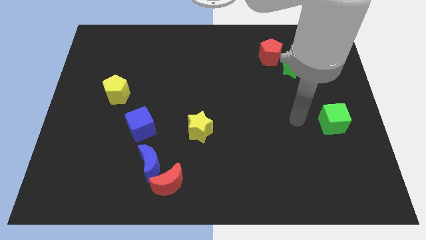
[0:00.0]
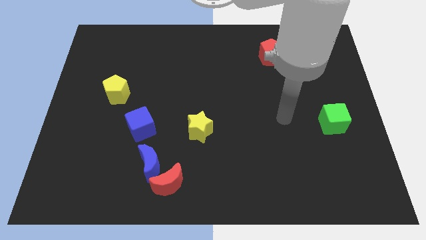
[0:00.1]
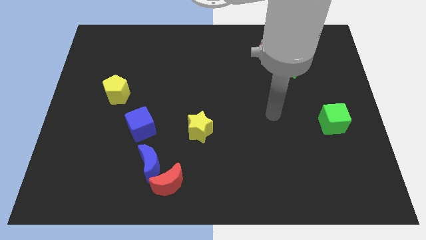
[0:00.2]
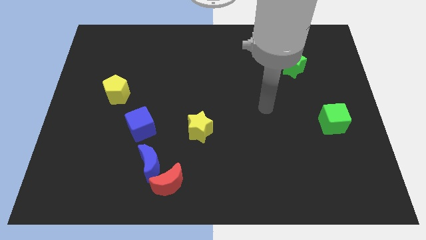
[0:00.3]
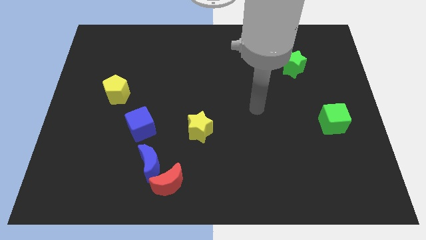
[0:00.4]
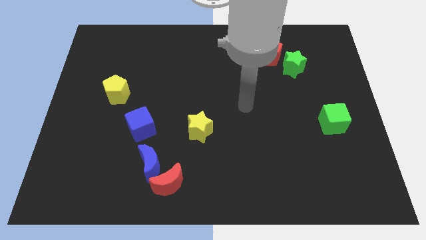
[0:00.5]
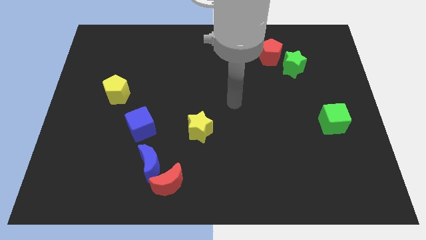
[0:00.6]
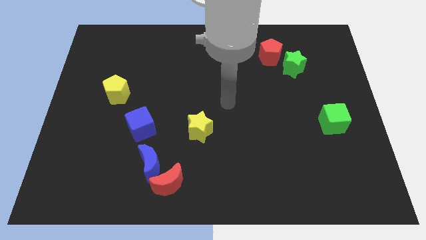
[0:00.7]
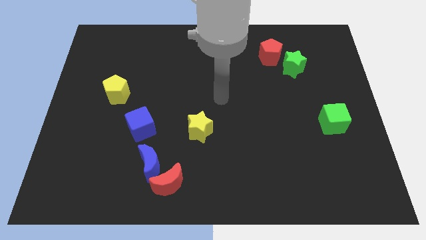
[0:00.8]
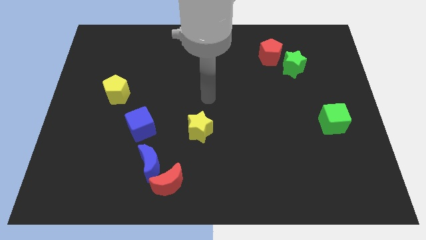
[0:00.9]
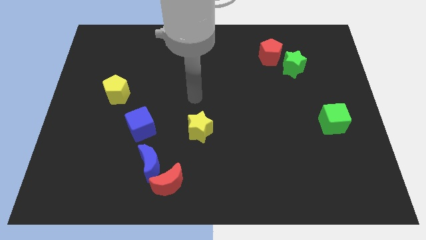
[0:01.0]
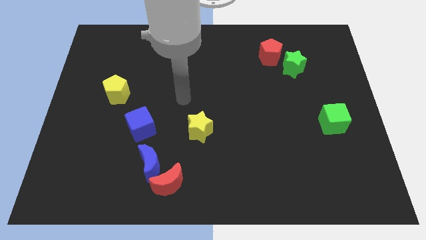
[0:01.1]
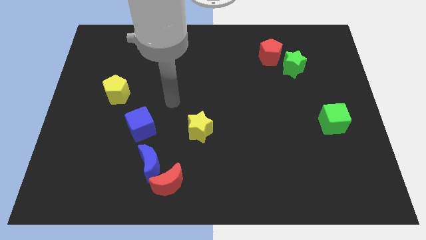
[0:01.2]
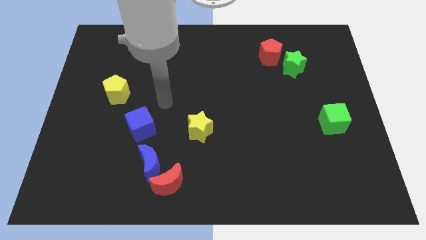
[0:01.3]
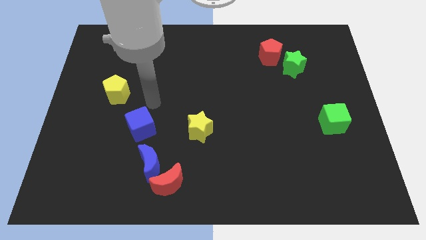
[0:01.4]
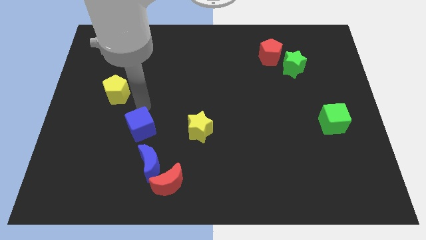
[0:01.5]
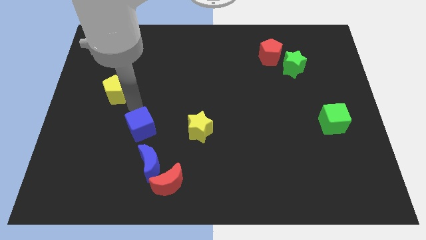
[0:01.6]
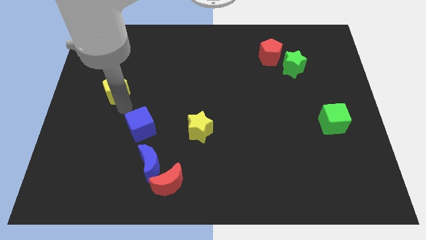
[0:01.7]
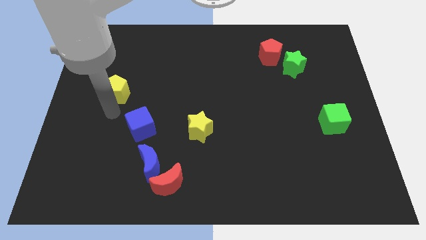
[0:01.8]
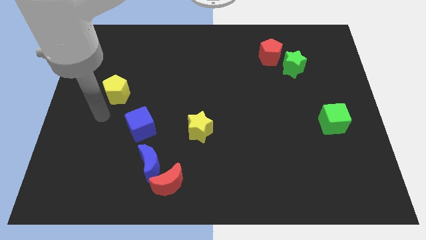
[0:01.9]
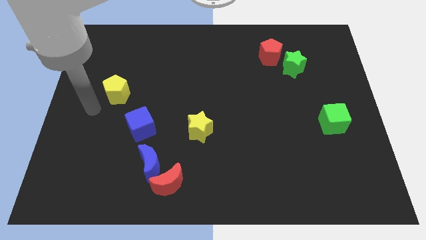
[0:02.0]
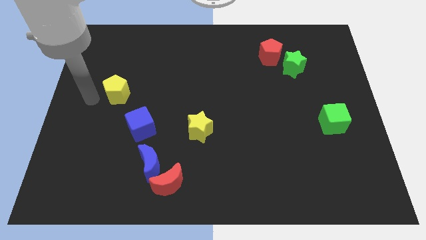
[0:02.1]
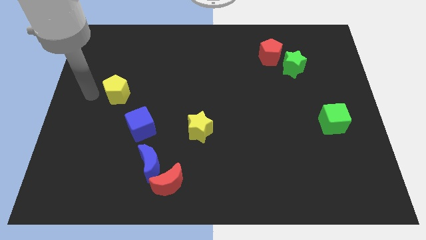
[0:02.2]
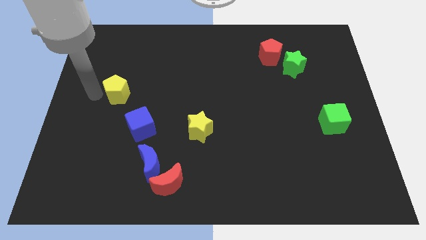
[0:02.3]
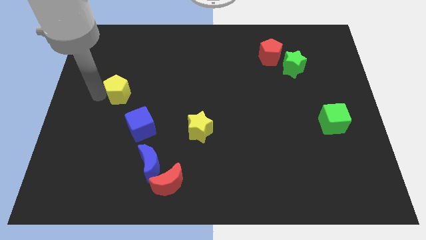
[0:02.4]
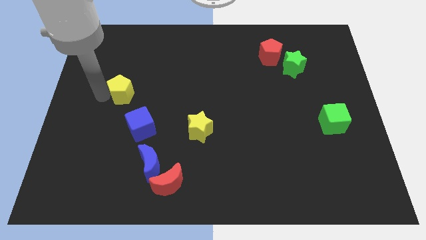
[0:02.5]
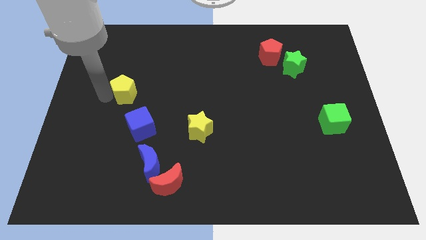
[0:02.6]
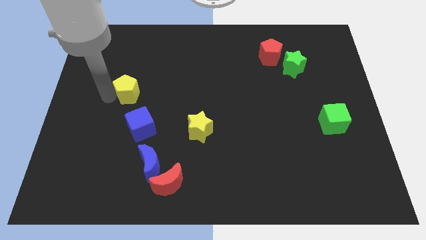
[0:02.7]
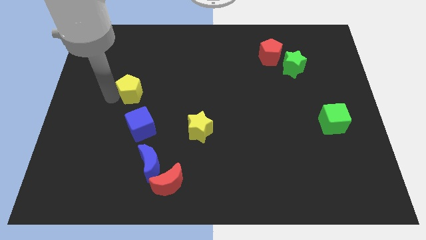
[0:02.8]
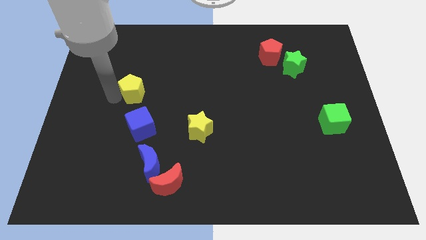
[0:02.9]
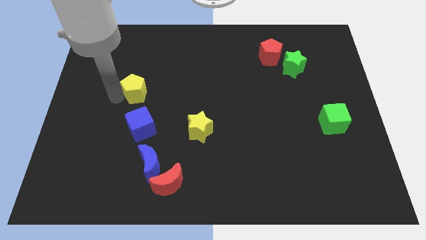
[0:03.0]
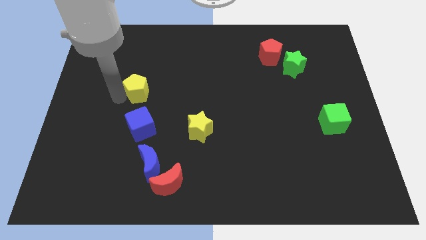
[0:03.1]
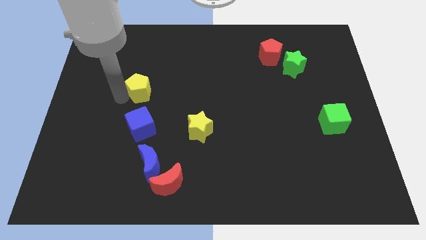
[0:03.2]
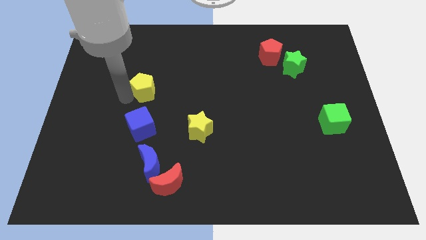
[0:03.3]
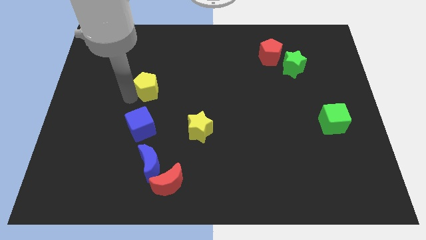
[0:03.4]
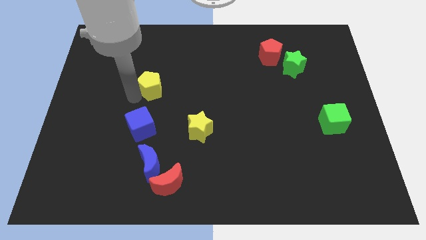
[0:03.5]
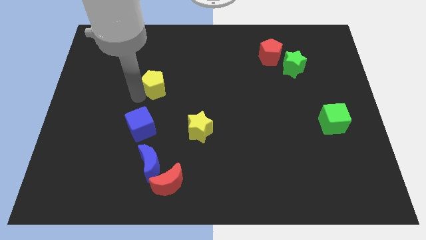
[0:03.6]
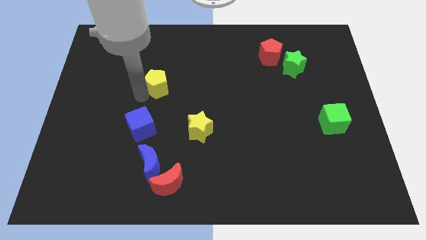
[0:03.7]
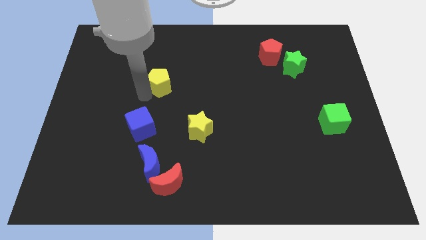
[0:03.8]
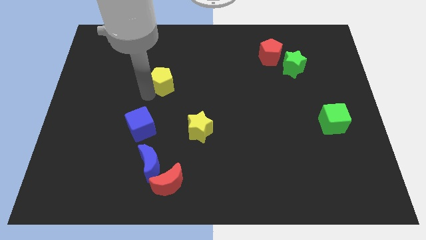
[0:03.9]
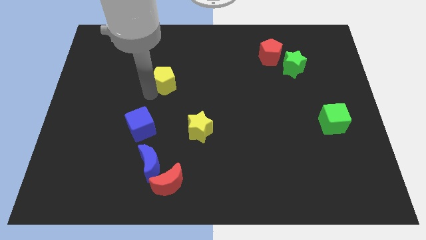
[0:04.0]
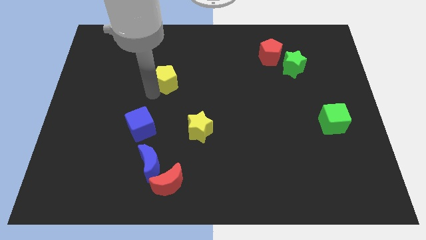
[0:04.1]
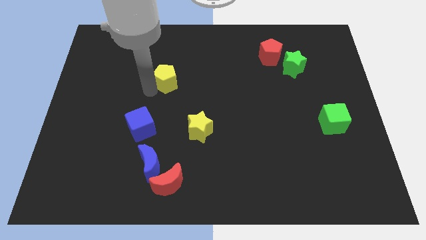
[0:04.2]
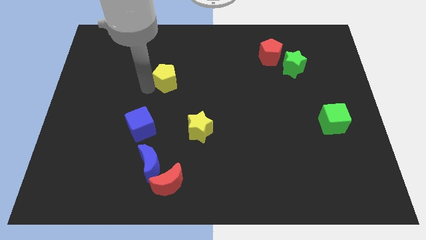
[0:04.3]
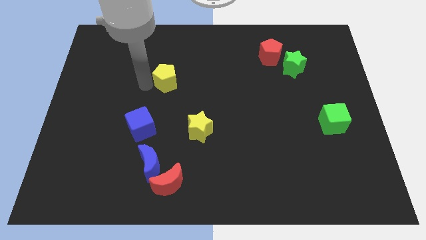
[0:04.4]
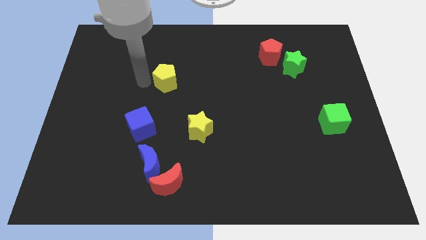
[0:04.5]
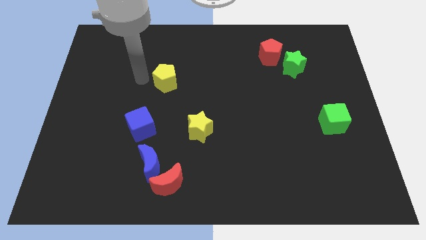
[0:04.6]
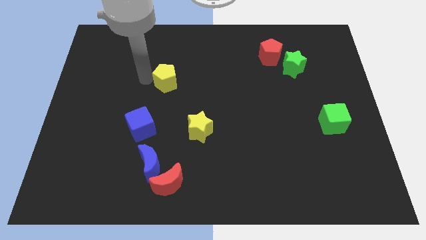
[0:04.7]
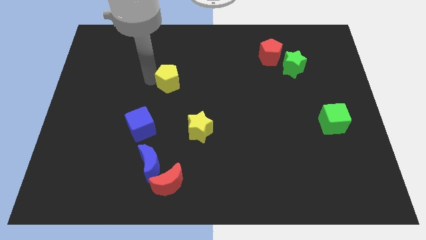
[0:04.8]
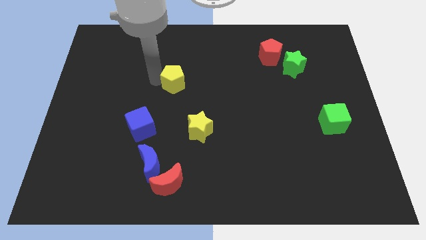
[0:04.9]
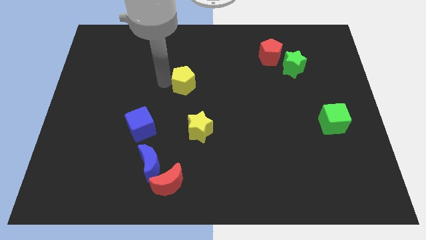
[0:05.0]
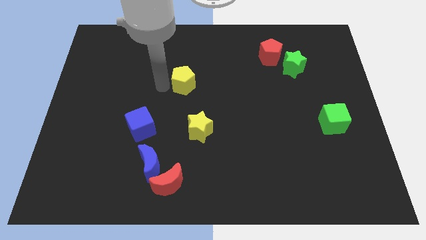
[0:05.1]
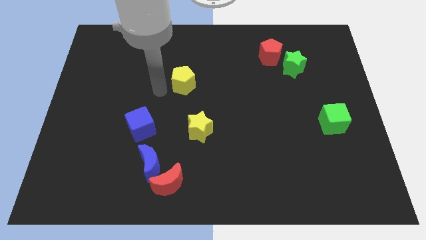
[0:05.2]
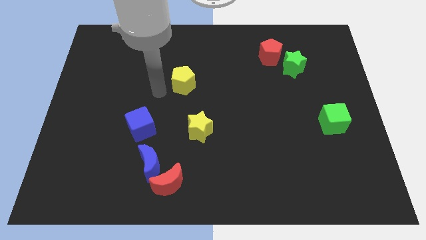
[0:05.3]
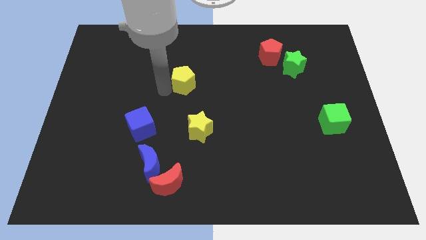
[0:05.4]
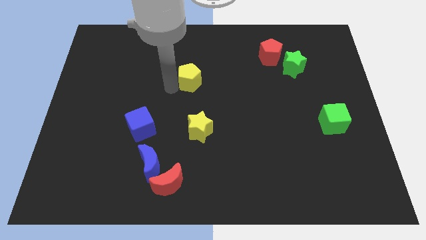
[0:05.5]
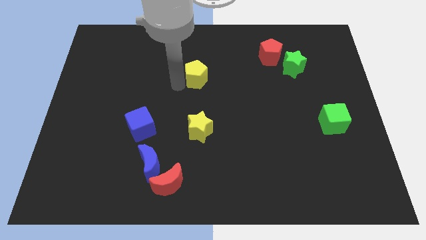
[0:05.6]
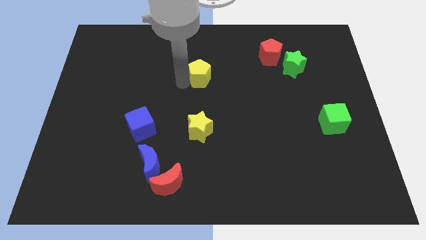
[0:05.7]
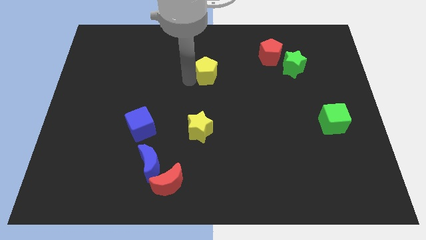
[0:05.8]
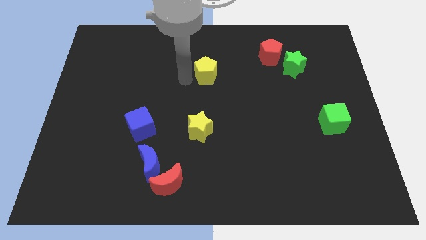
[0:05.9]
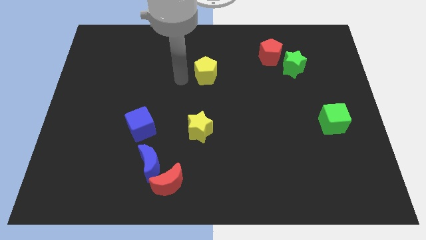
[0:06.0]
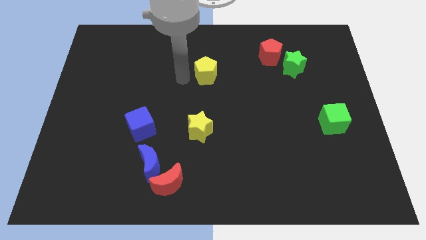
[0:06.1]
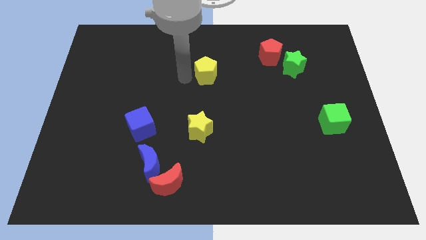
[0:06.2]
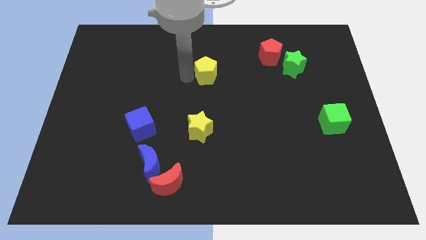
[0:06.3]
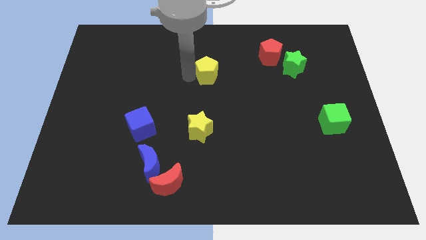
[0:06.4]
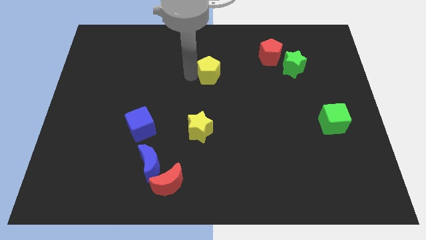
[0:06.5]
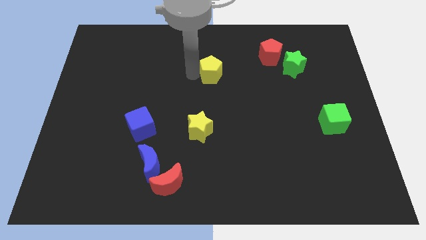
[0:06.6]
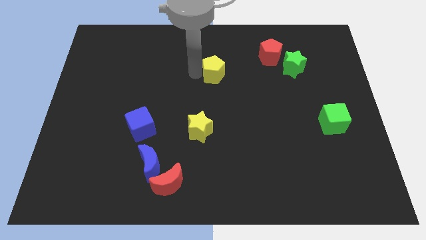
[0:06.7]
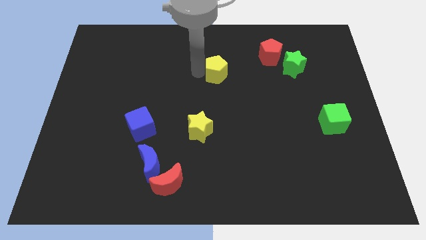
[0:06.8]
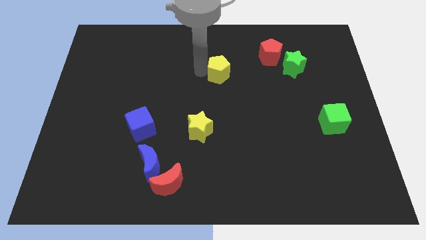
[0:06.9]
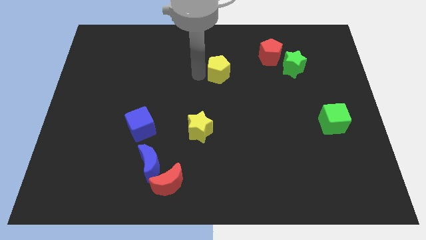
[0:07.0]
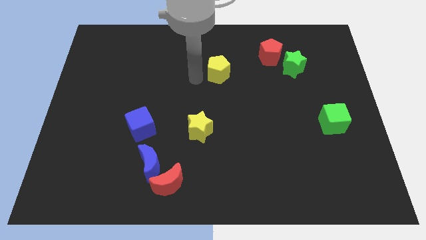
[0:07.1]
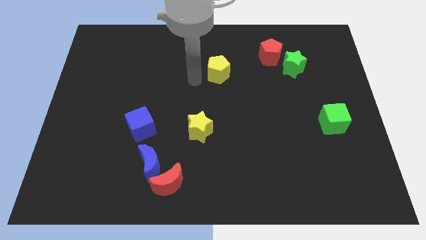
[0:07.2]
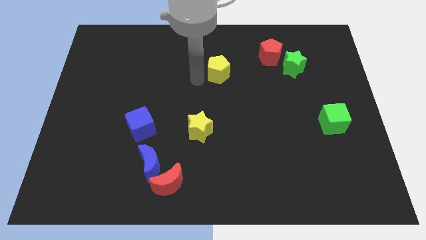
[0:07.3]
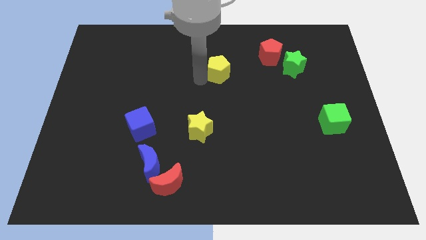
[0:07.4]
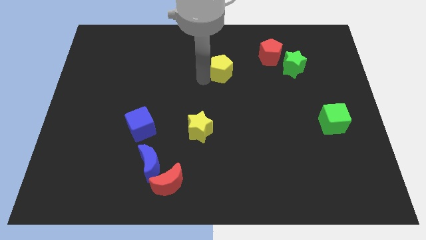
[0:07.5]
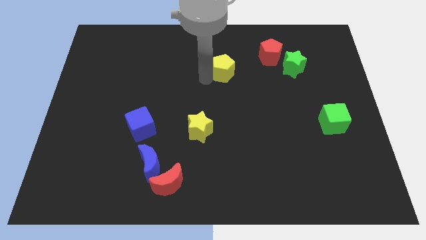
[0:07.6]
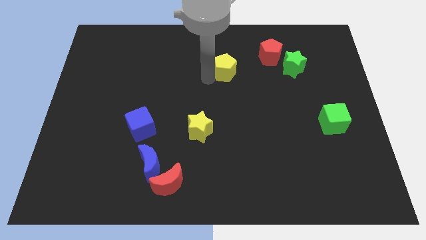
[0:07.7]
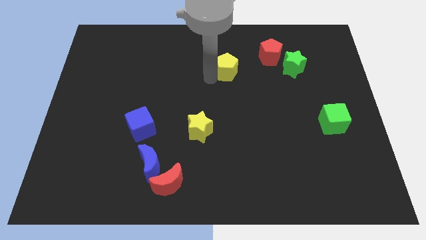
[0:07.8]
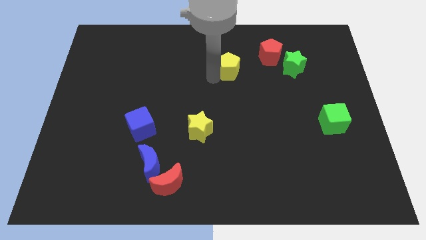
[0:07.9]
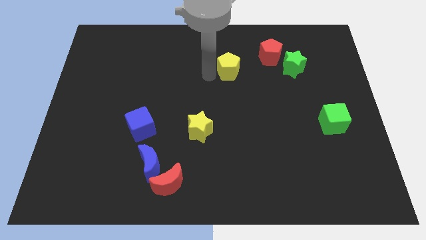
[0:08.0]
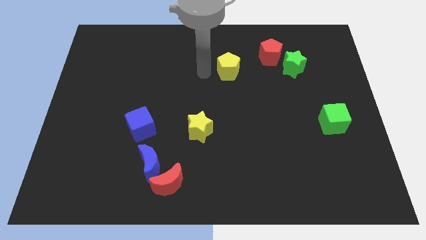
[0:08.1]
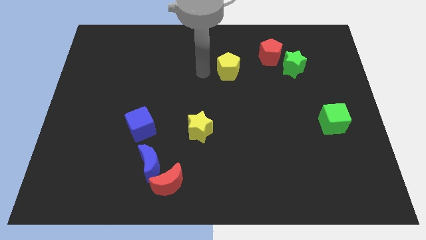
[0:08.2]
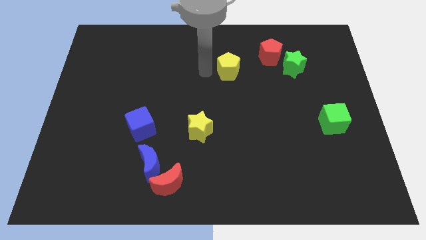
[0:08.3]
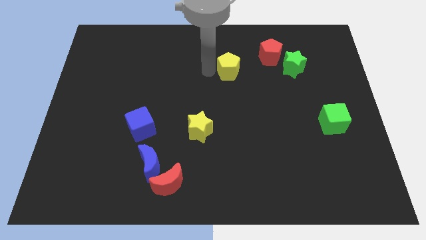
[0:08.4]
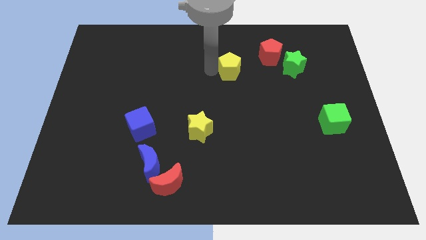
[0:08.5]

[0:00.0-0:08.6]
push the yellow pentagon to the left of the green star
